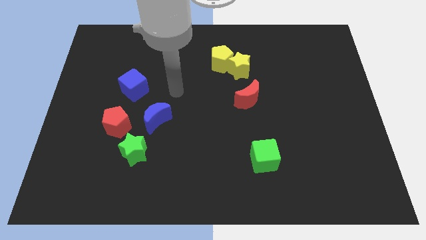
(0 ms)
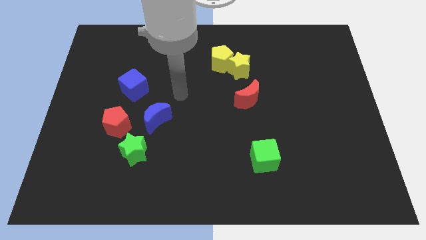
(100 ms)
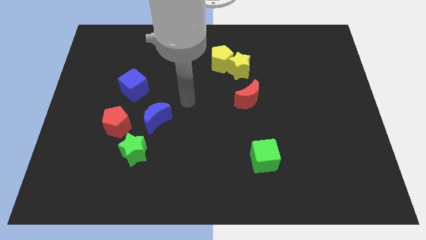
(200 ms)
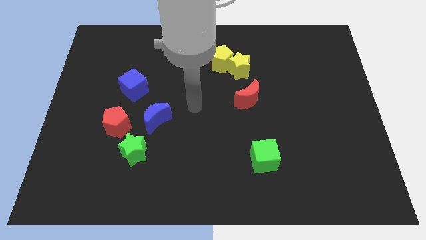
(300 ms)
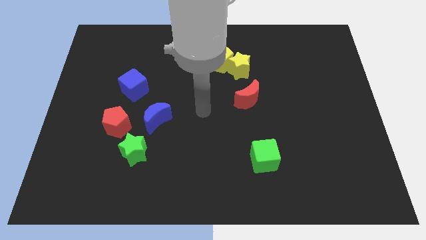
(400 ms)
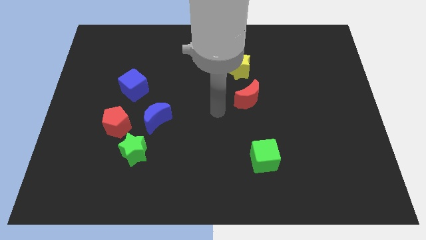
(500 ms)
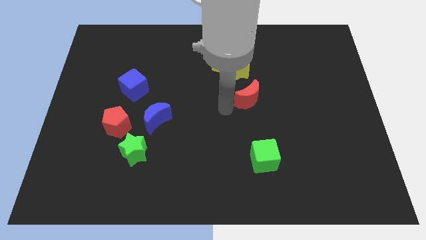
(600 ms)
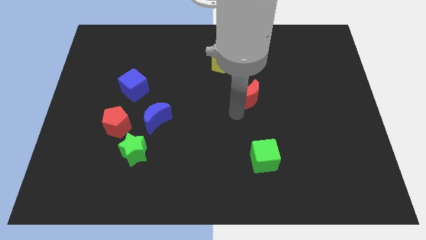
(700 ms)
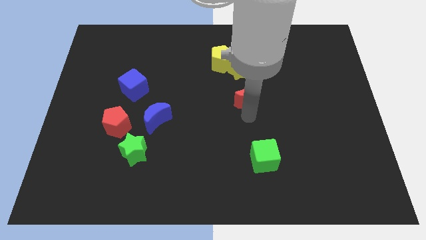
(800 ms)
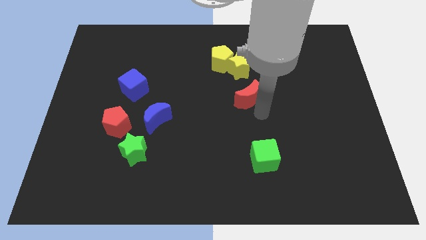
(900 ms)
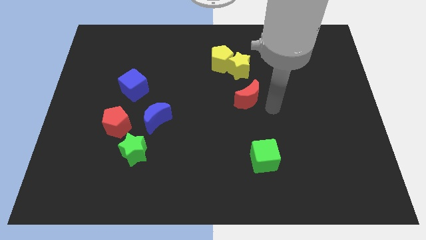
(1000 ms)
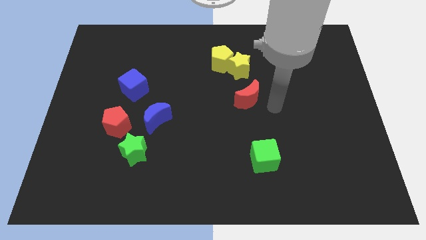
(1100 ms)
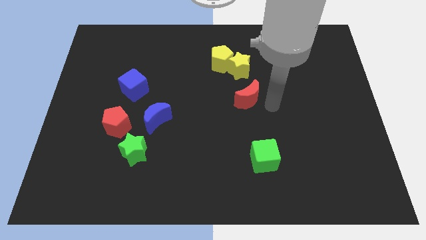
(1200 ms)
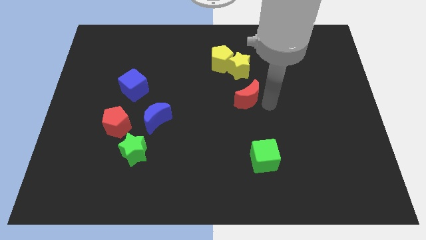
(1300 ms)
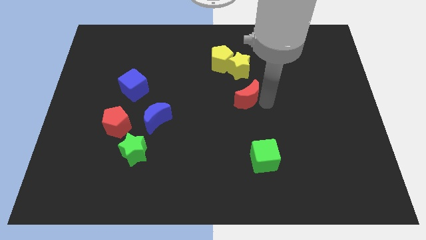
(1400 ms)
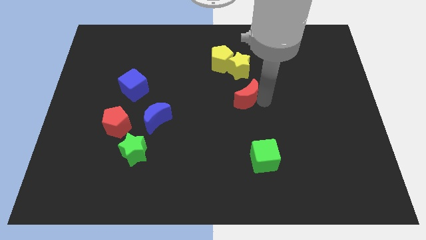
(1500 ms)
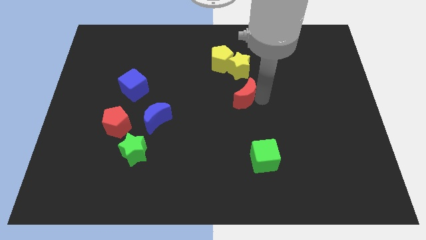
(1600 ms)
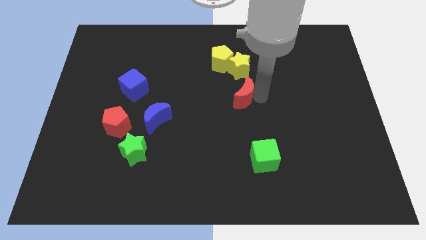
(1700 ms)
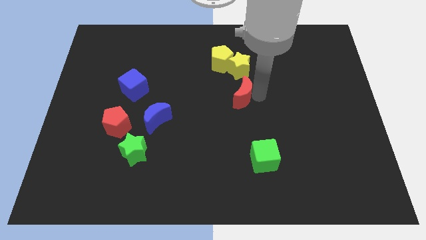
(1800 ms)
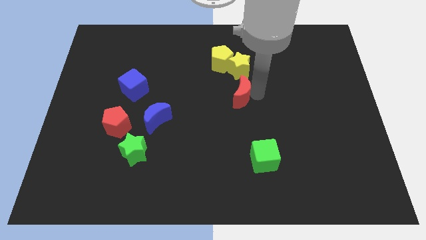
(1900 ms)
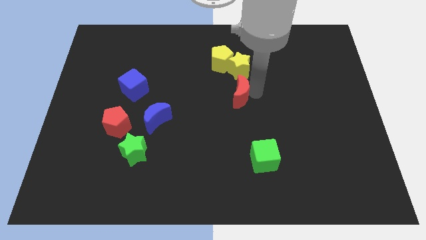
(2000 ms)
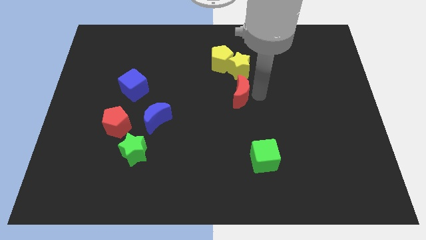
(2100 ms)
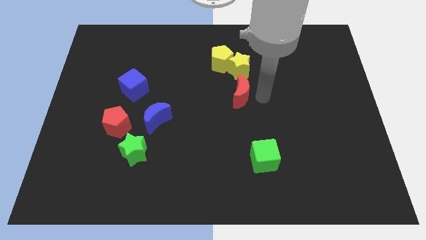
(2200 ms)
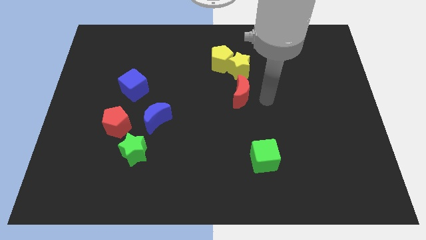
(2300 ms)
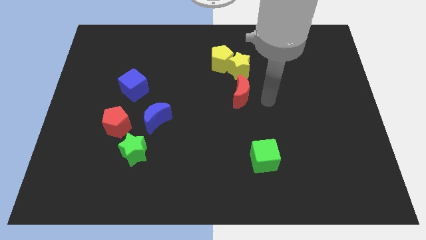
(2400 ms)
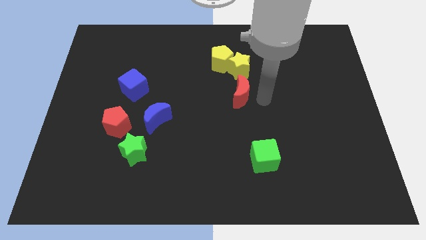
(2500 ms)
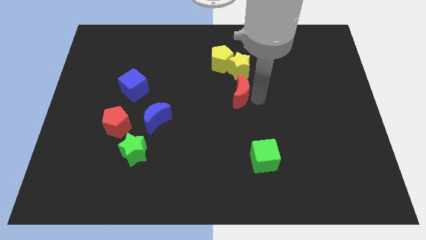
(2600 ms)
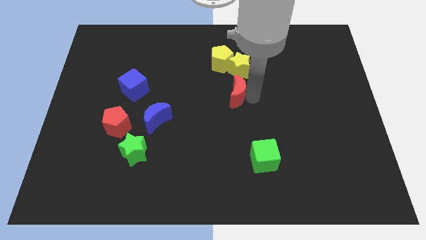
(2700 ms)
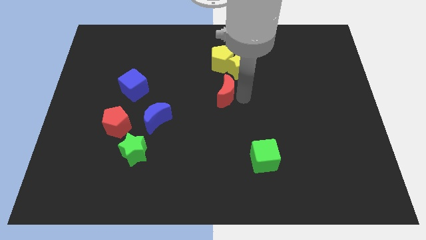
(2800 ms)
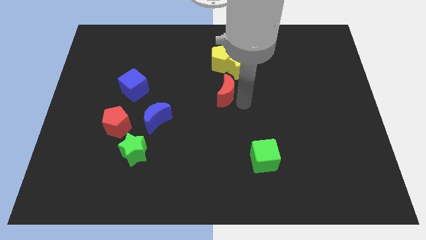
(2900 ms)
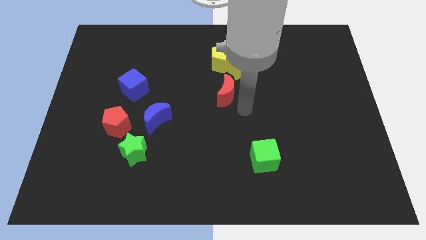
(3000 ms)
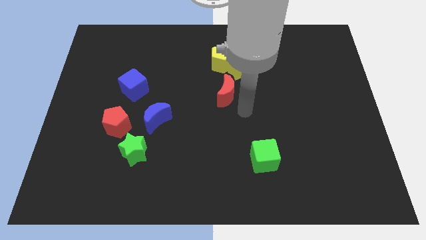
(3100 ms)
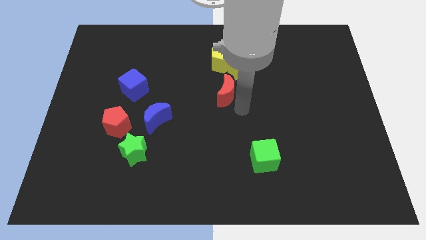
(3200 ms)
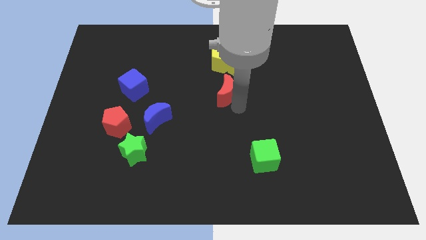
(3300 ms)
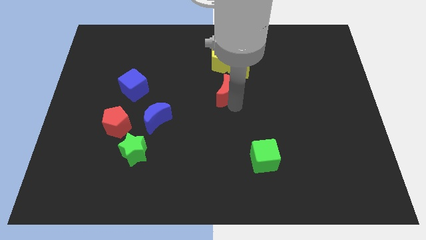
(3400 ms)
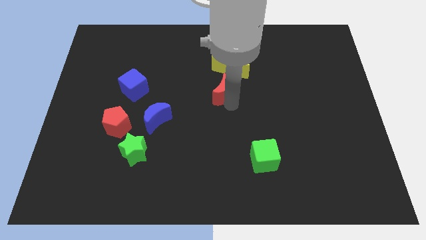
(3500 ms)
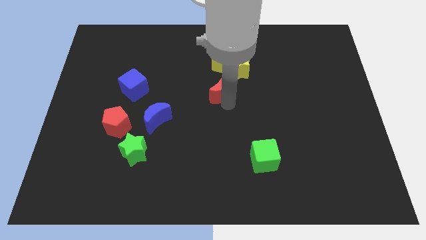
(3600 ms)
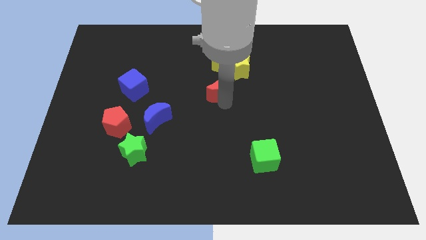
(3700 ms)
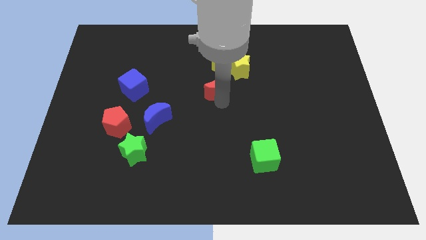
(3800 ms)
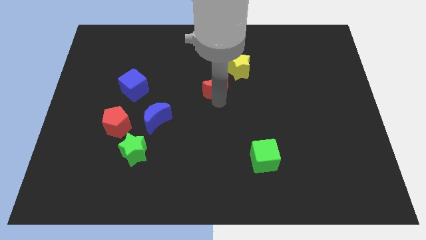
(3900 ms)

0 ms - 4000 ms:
slightly push the red moon diagonally up and to the left

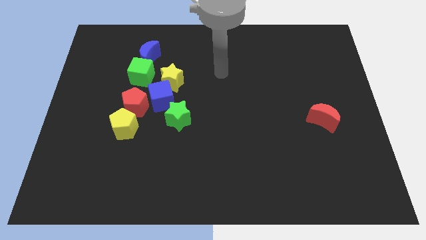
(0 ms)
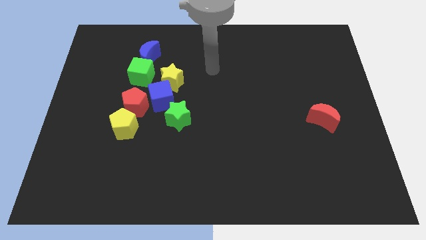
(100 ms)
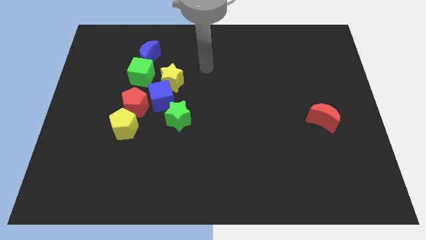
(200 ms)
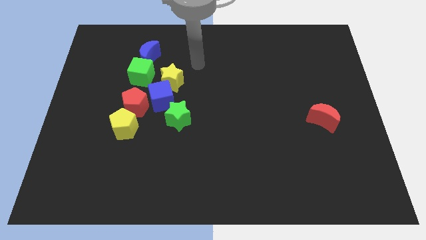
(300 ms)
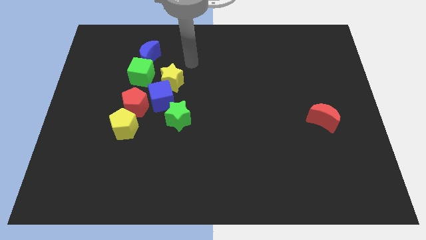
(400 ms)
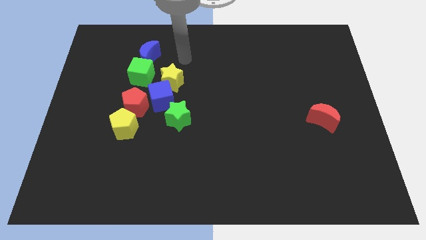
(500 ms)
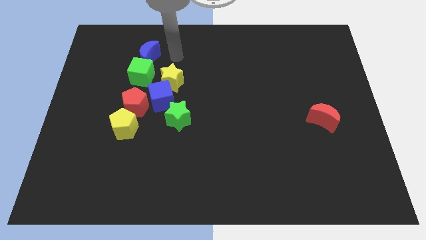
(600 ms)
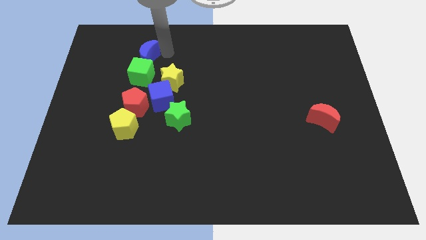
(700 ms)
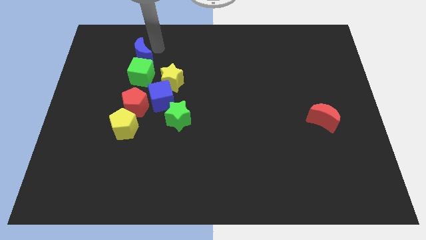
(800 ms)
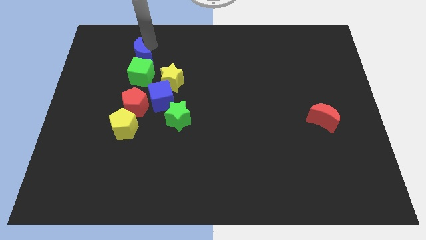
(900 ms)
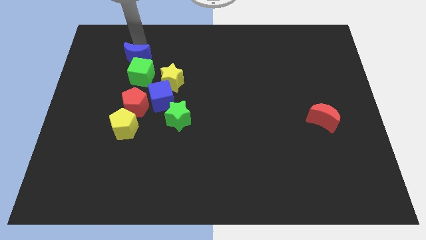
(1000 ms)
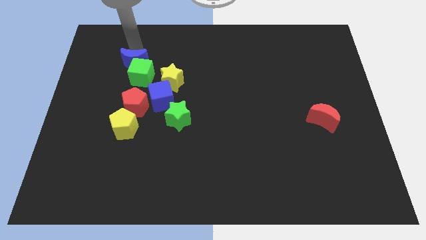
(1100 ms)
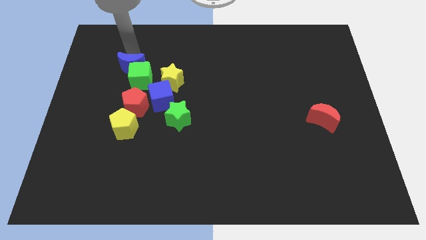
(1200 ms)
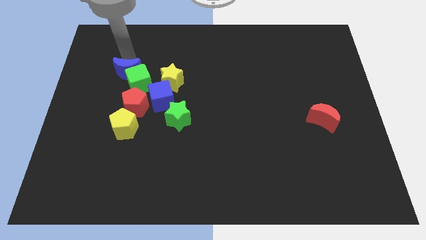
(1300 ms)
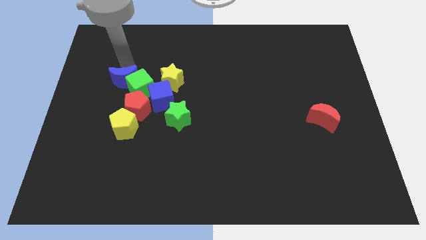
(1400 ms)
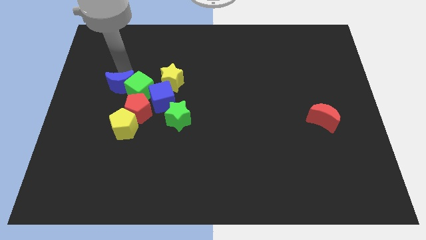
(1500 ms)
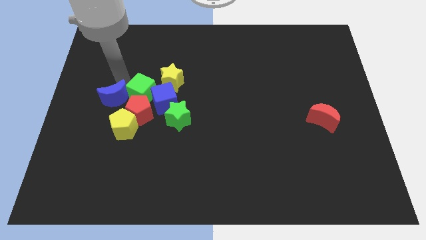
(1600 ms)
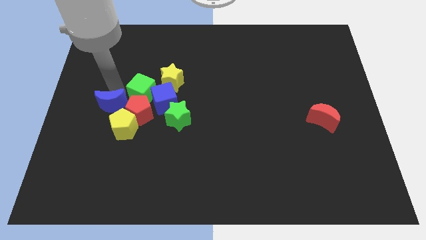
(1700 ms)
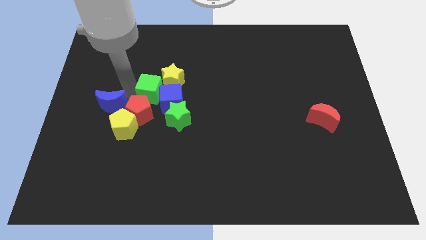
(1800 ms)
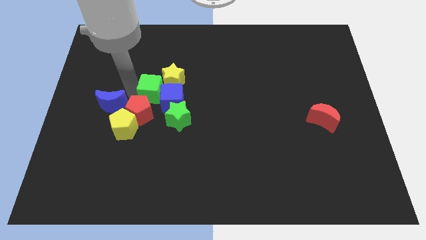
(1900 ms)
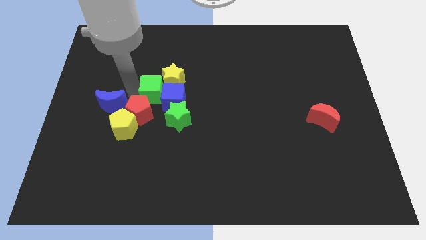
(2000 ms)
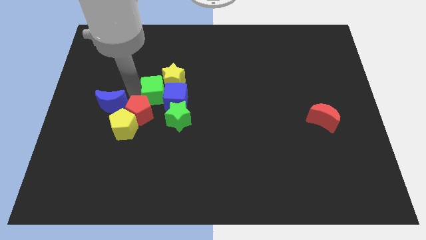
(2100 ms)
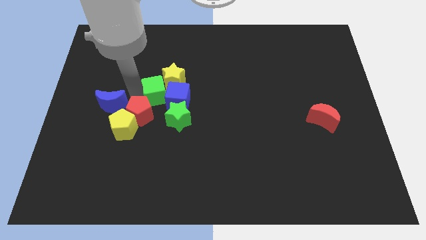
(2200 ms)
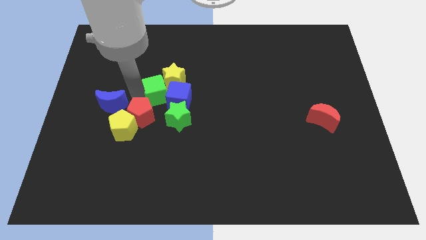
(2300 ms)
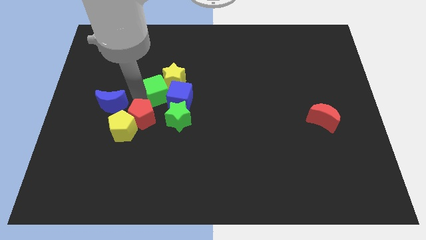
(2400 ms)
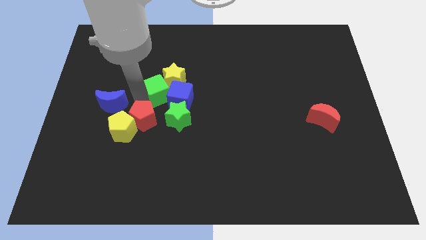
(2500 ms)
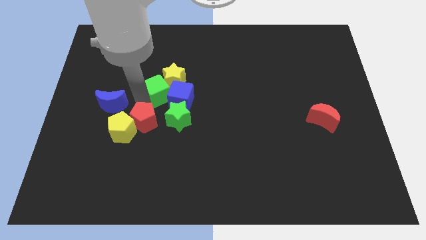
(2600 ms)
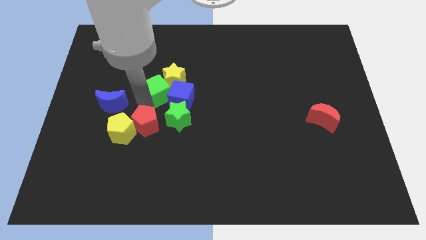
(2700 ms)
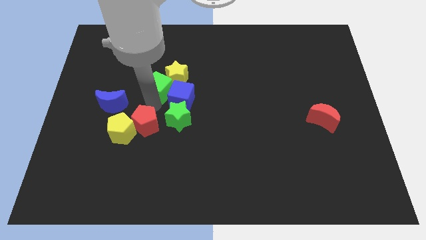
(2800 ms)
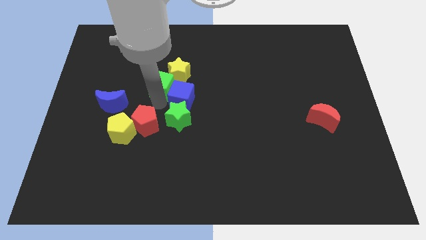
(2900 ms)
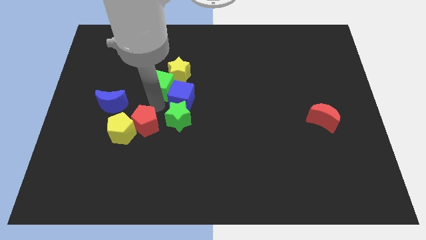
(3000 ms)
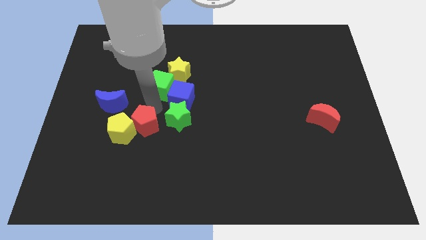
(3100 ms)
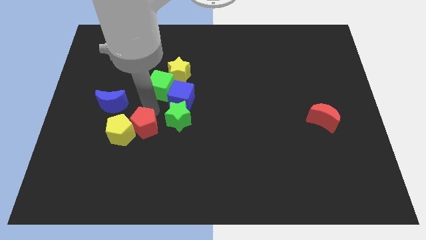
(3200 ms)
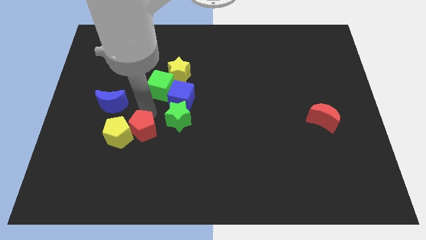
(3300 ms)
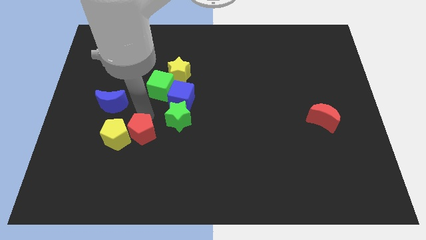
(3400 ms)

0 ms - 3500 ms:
slightly slide the red pentagon down

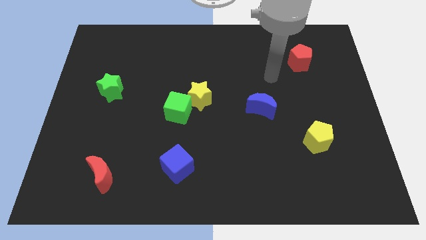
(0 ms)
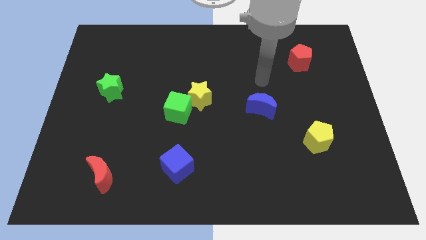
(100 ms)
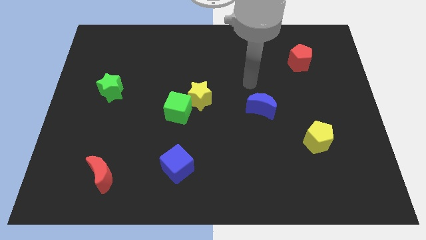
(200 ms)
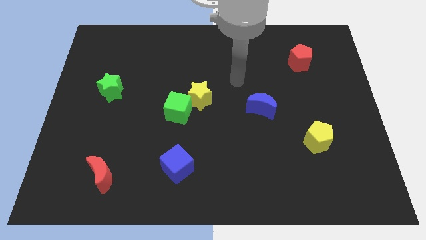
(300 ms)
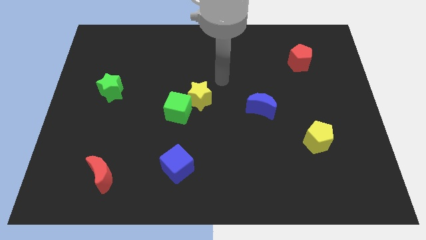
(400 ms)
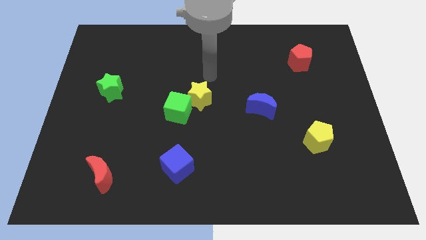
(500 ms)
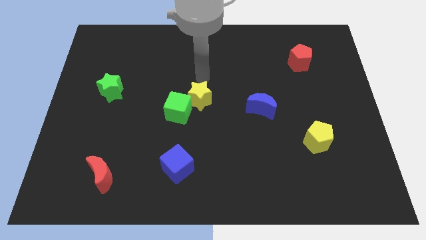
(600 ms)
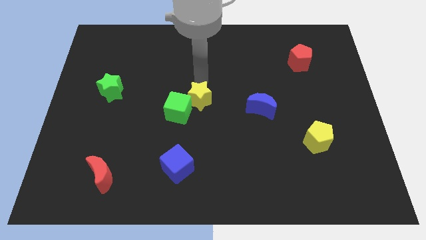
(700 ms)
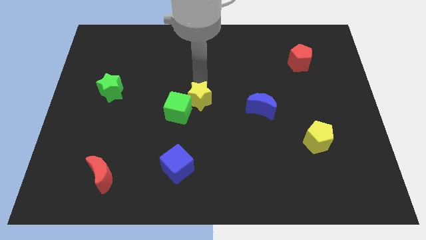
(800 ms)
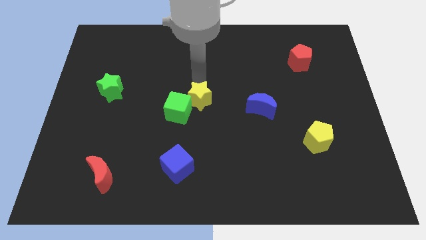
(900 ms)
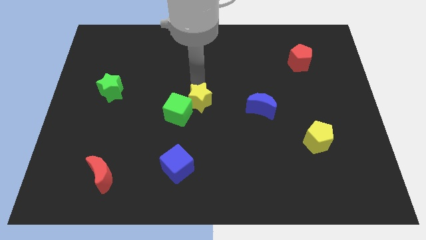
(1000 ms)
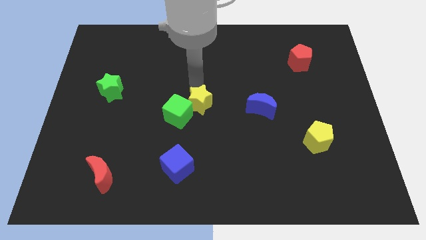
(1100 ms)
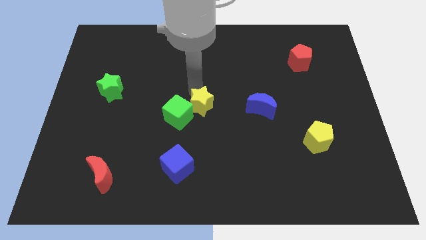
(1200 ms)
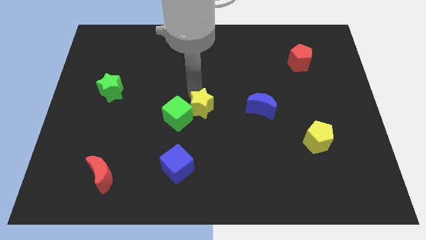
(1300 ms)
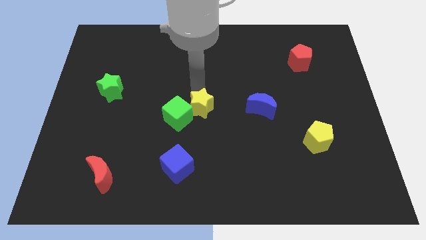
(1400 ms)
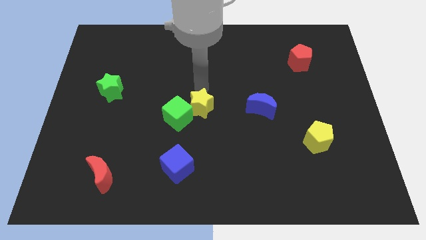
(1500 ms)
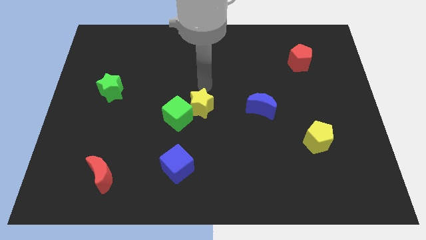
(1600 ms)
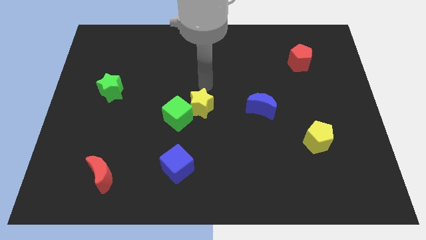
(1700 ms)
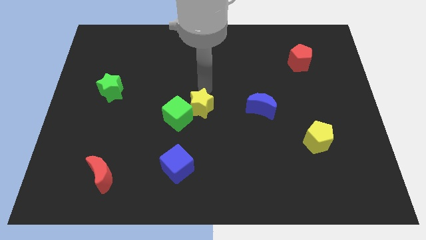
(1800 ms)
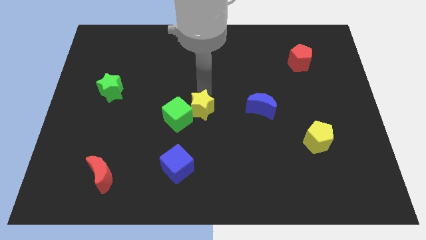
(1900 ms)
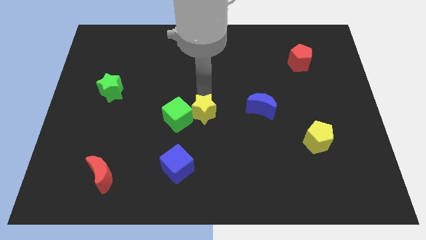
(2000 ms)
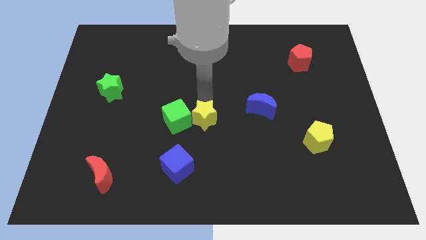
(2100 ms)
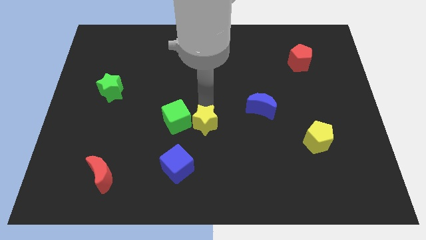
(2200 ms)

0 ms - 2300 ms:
move the yellow star somewhat down
